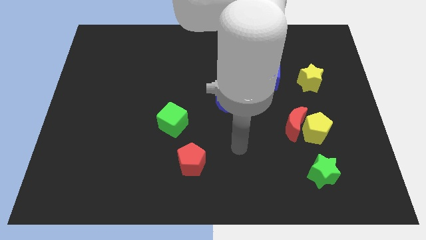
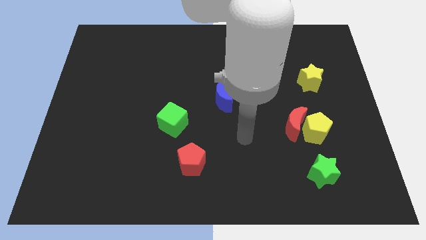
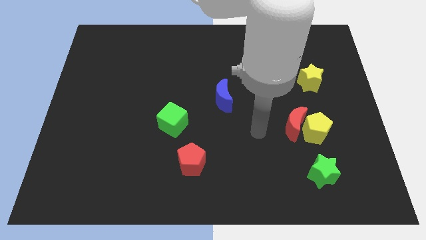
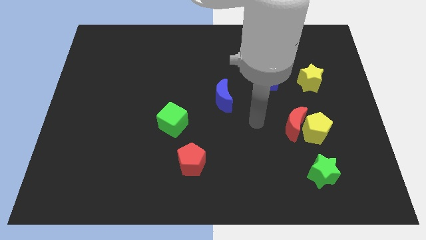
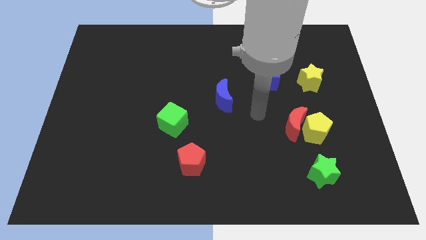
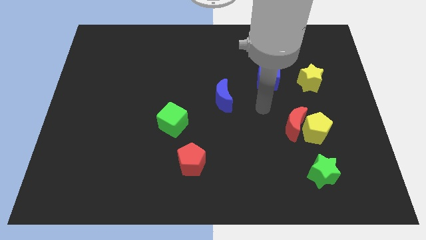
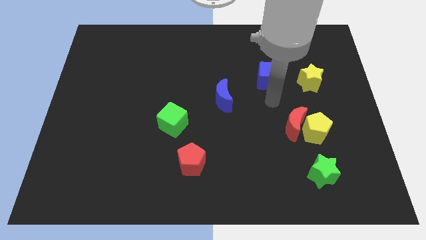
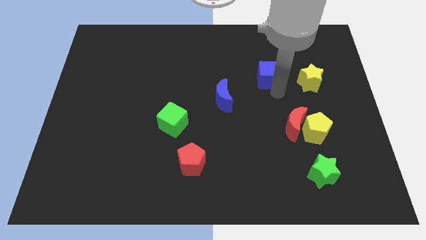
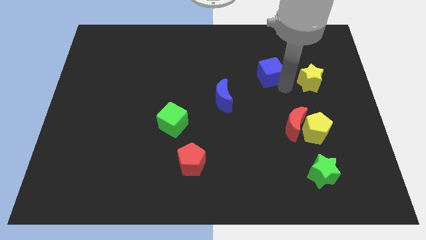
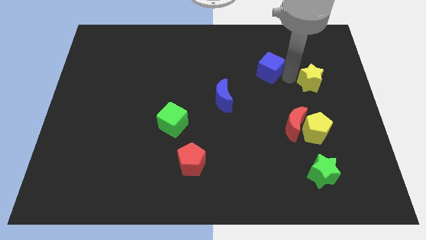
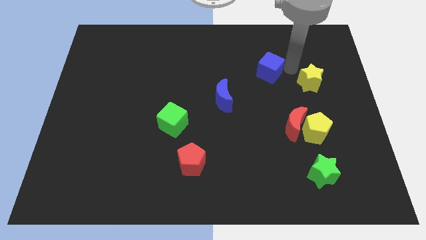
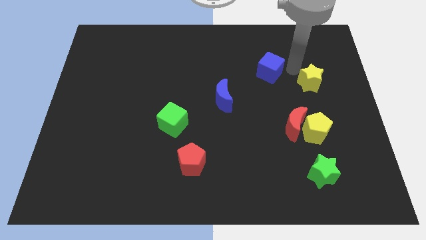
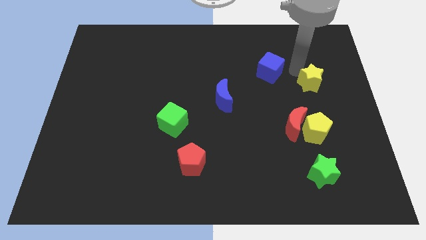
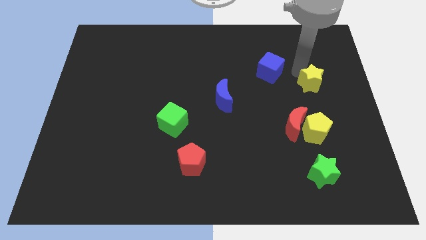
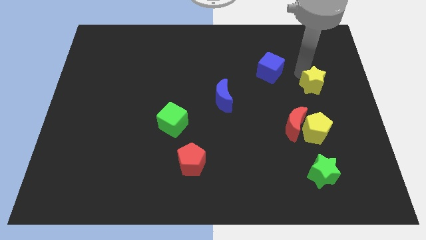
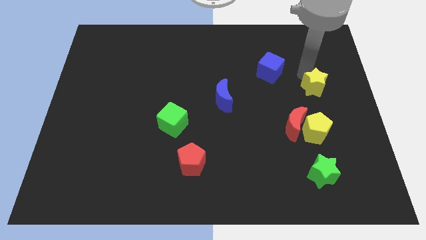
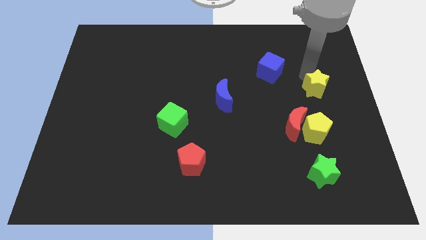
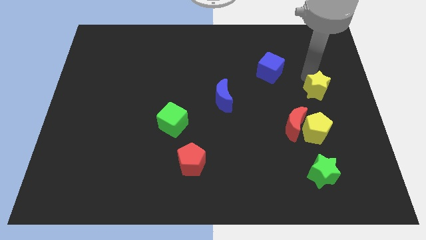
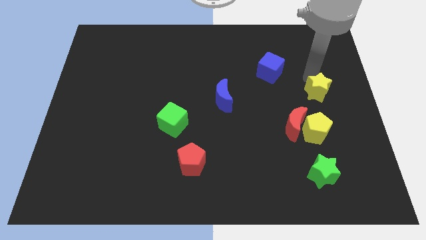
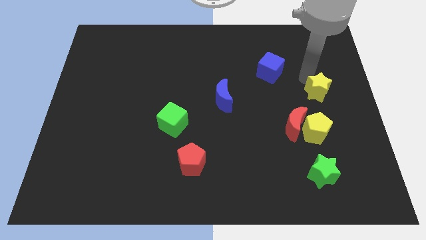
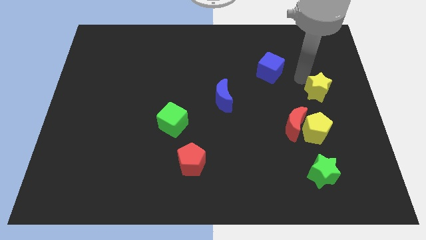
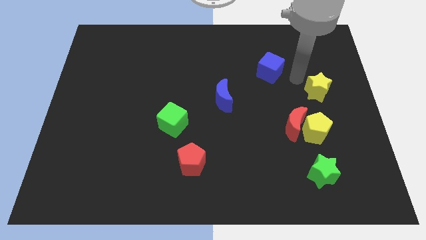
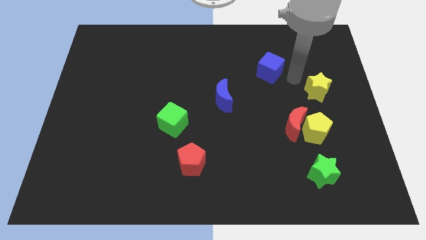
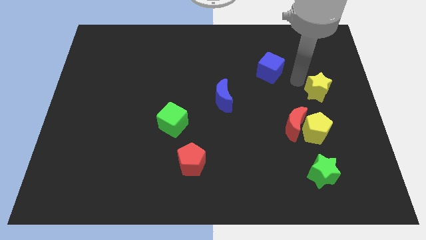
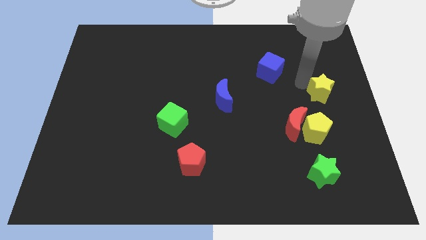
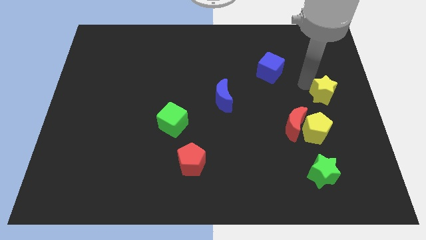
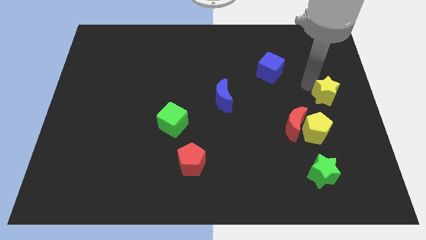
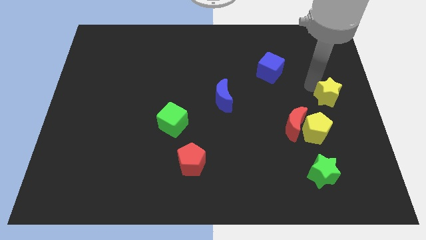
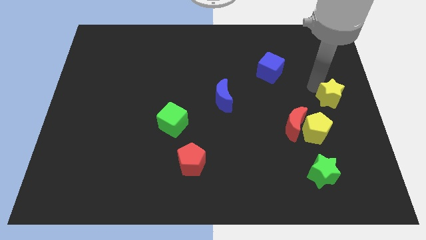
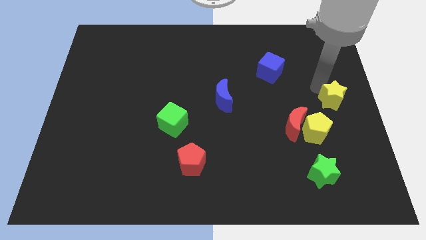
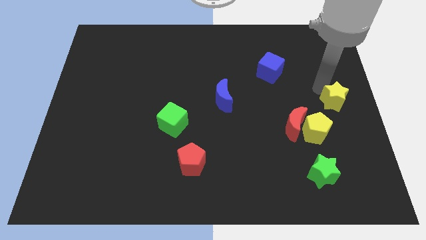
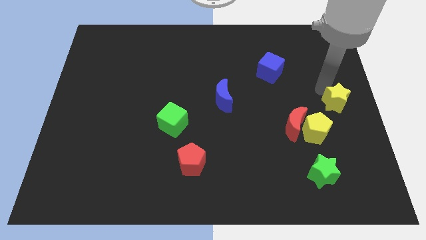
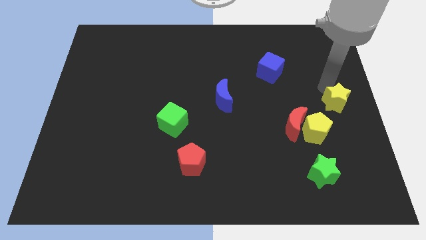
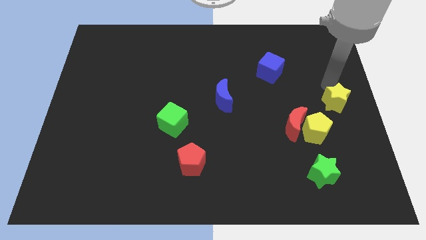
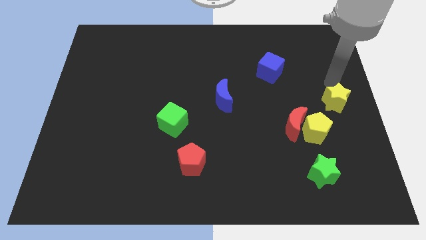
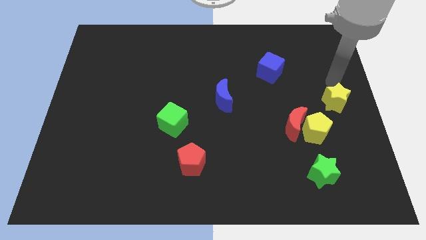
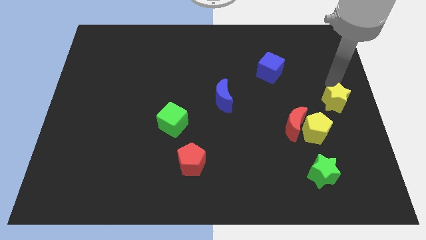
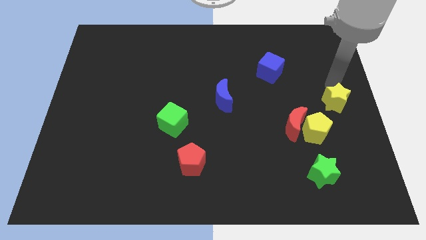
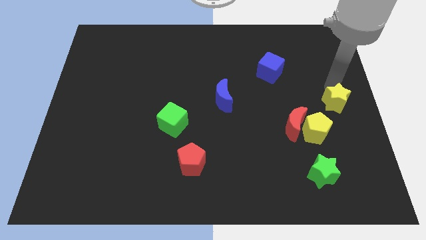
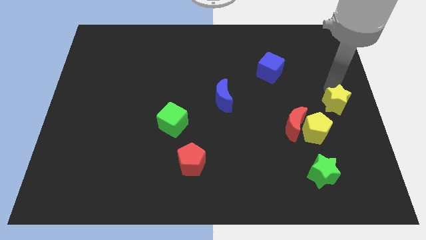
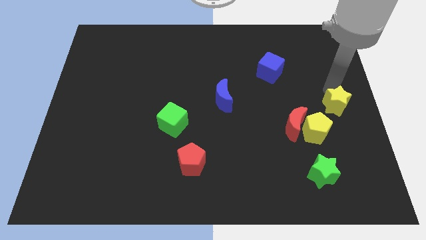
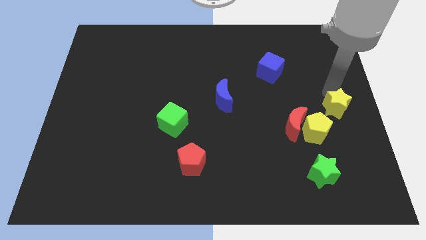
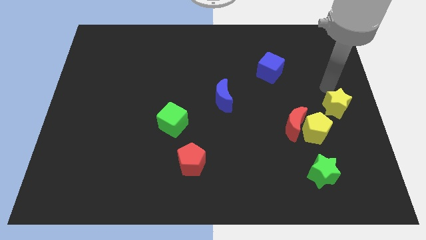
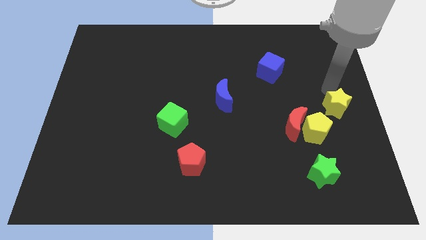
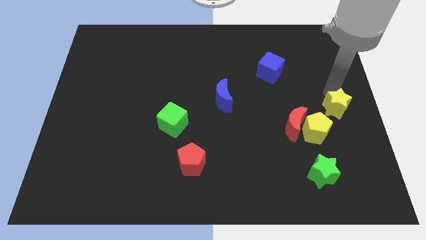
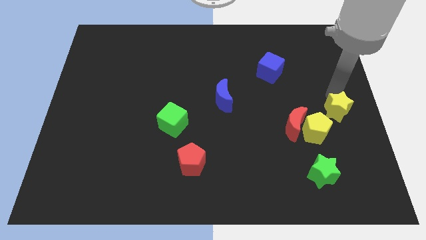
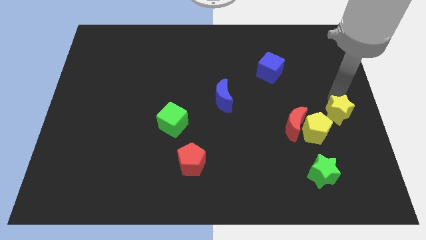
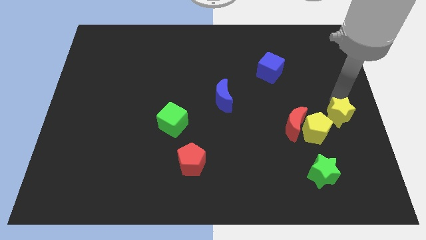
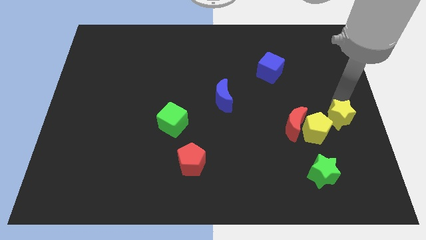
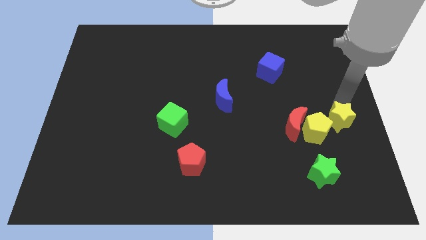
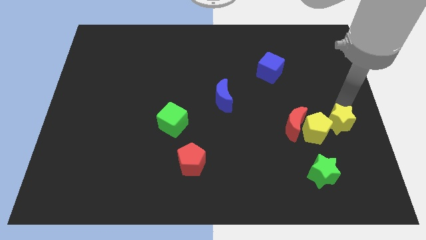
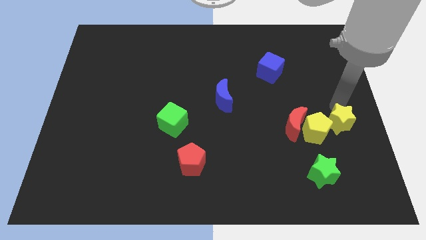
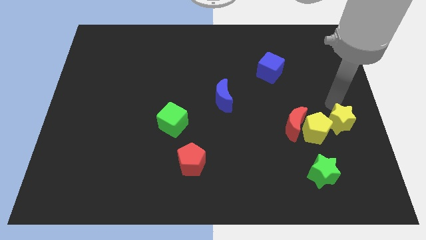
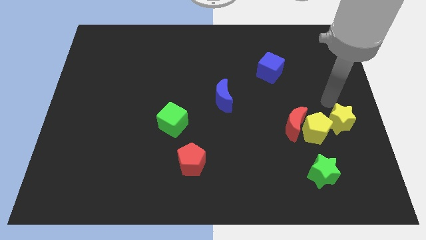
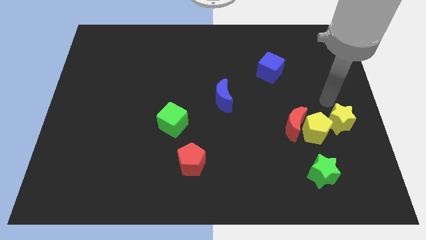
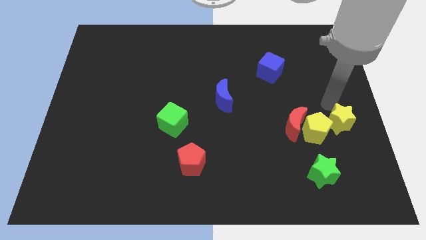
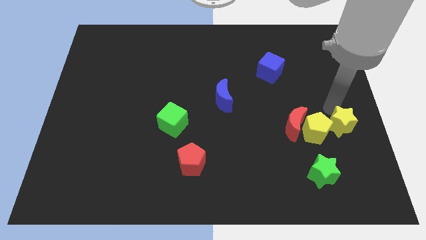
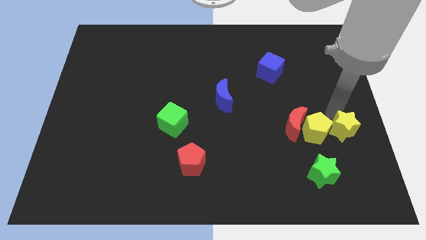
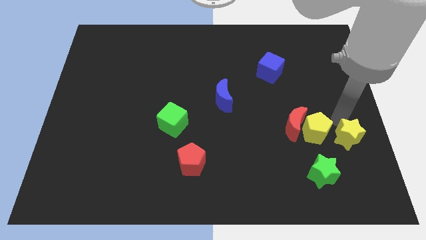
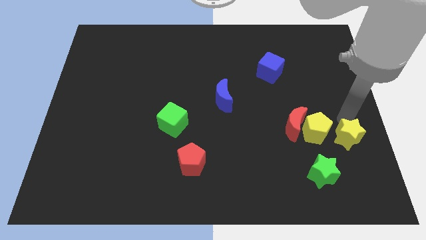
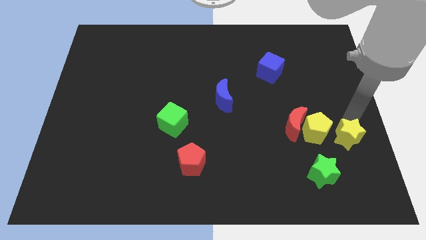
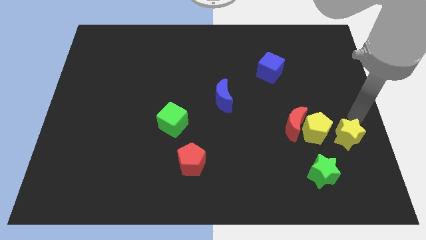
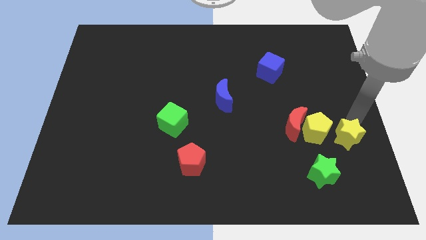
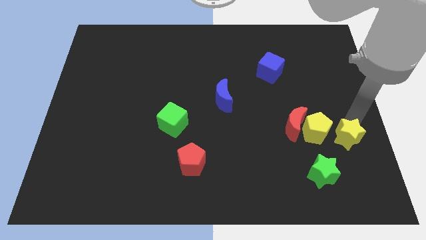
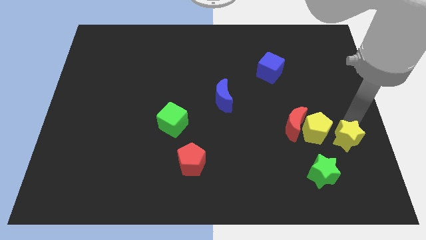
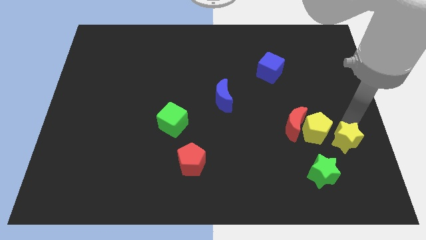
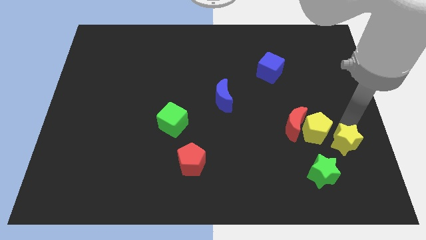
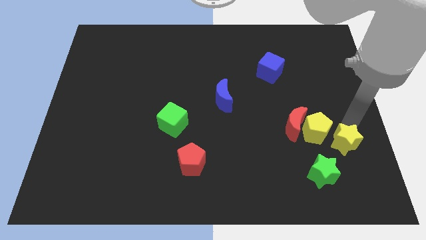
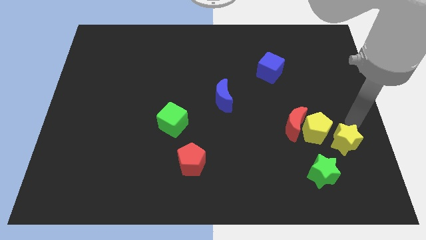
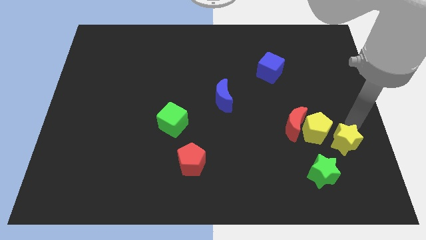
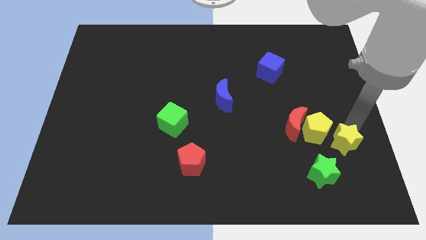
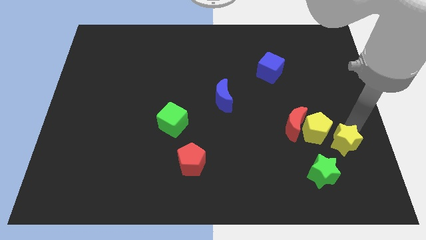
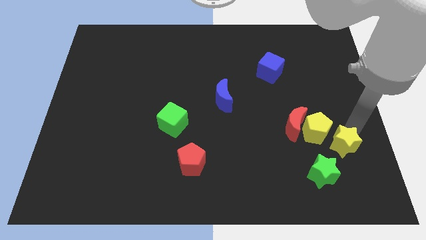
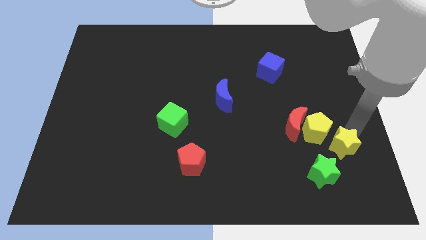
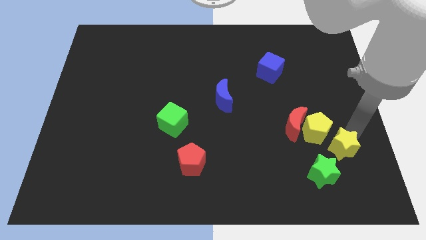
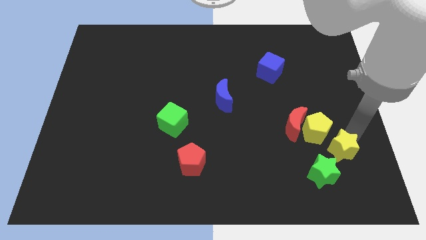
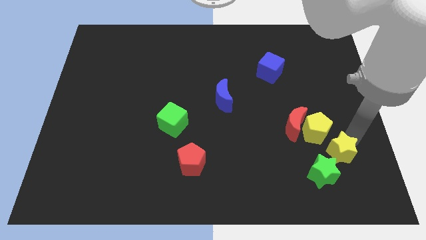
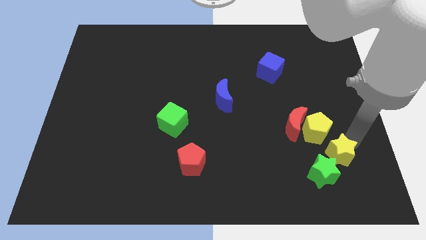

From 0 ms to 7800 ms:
slide the yellow star to the green star
